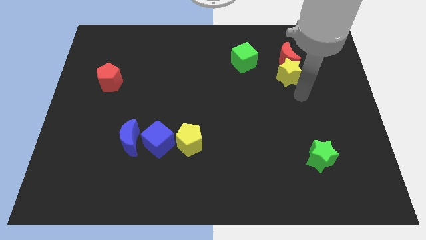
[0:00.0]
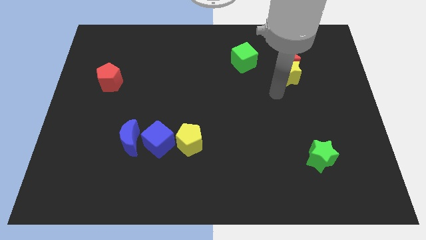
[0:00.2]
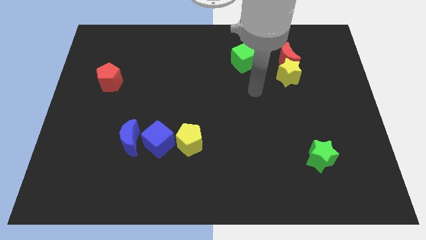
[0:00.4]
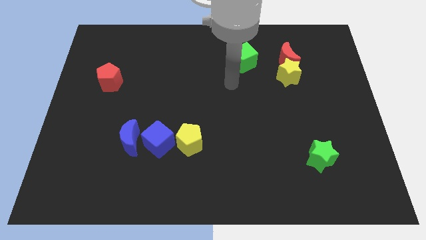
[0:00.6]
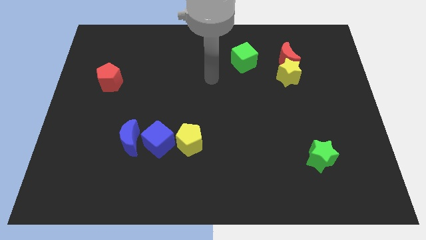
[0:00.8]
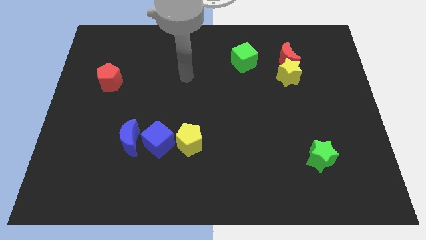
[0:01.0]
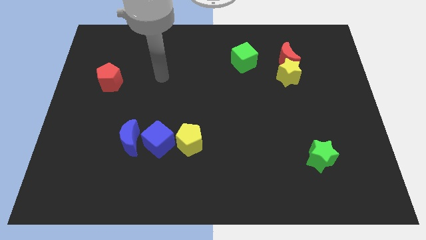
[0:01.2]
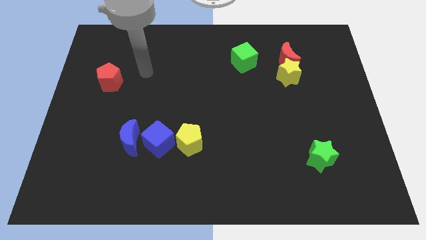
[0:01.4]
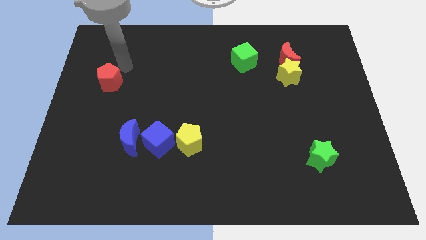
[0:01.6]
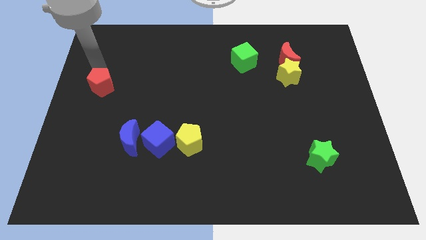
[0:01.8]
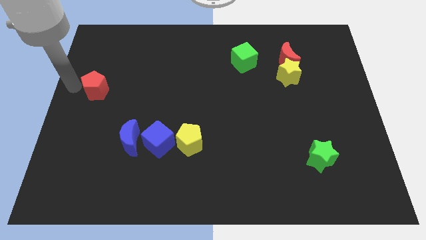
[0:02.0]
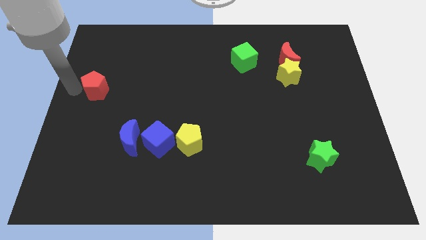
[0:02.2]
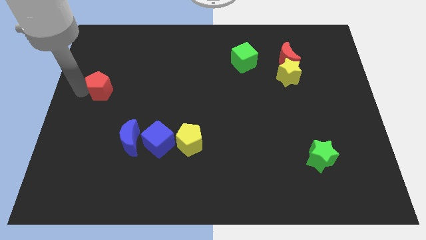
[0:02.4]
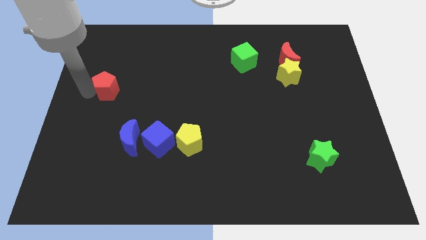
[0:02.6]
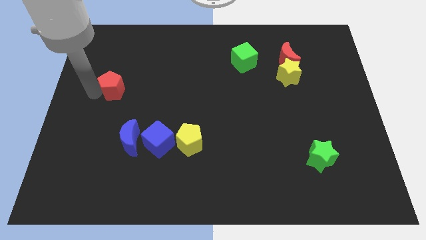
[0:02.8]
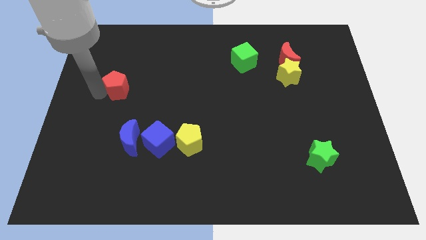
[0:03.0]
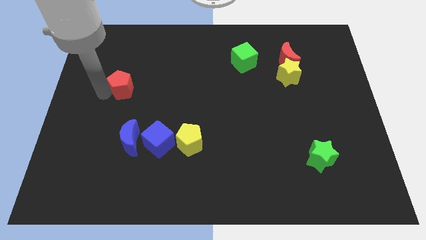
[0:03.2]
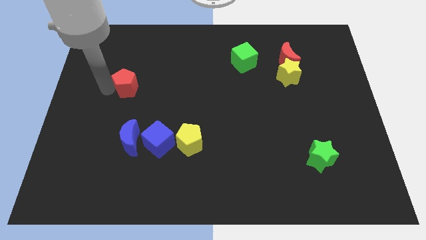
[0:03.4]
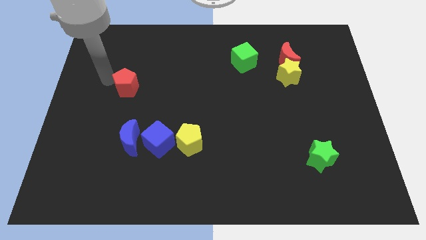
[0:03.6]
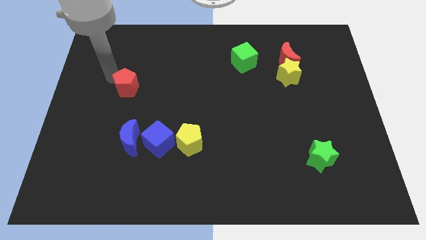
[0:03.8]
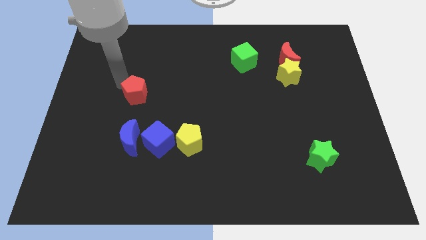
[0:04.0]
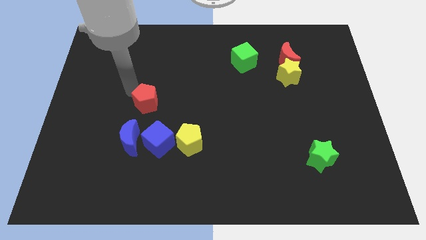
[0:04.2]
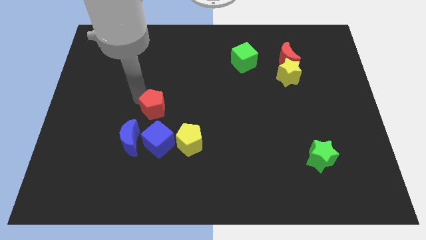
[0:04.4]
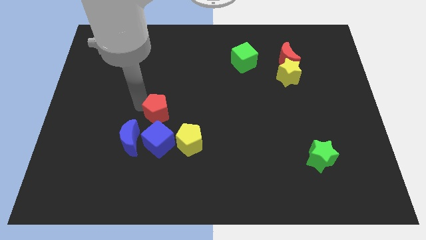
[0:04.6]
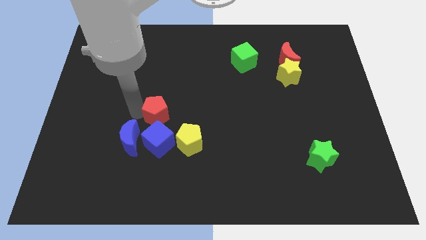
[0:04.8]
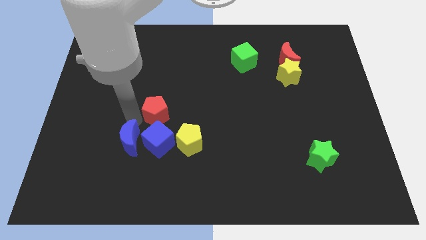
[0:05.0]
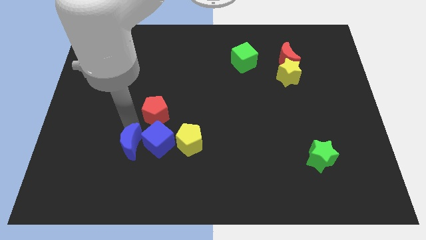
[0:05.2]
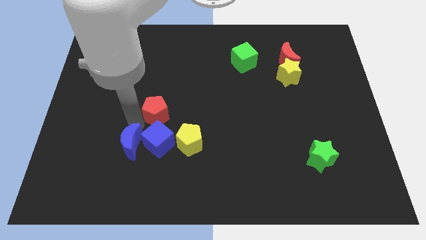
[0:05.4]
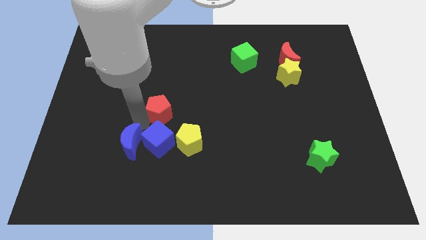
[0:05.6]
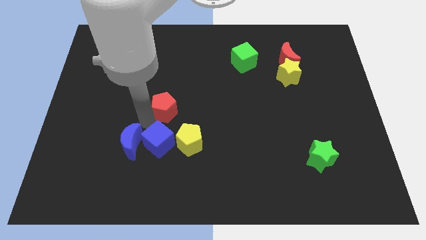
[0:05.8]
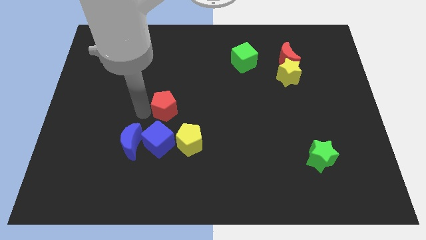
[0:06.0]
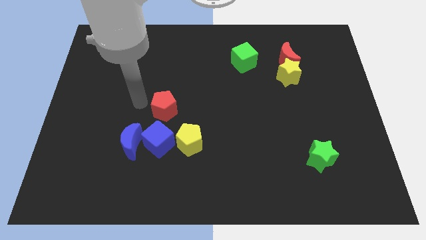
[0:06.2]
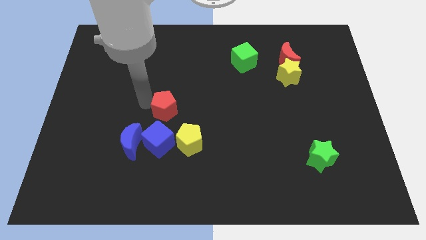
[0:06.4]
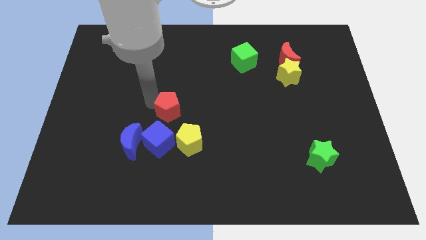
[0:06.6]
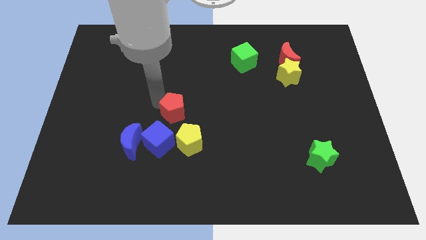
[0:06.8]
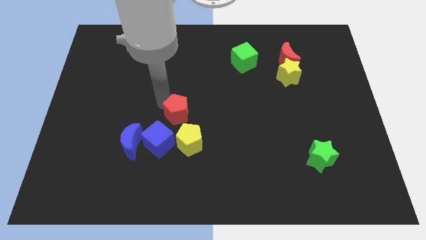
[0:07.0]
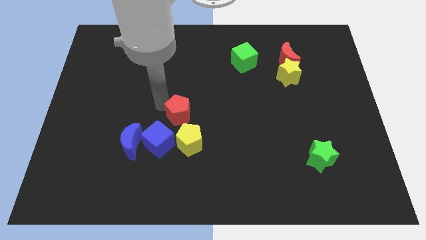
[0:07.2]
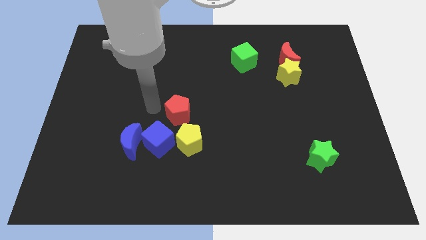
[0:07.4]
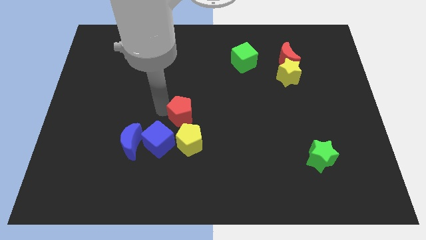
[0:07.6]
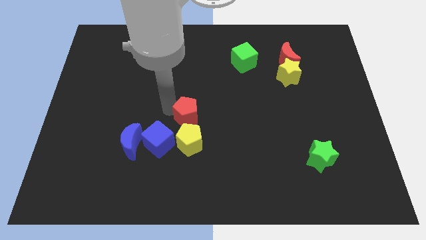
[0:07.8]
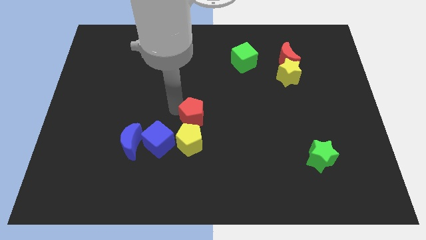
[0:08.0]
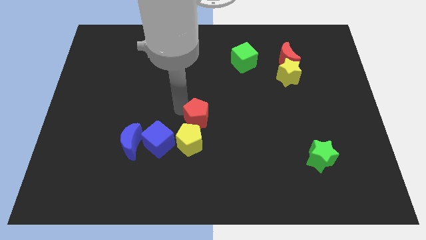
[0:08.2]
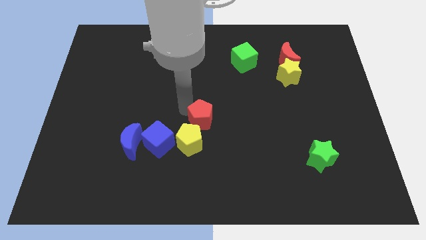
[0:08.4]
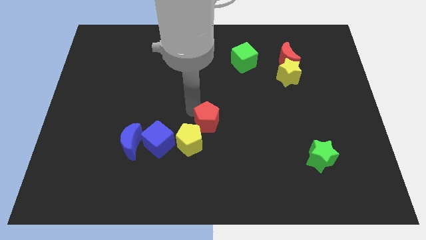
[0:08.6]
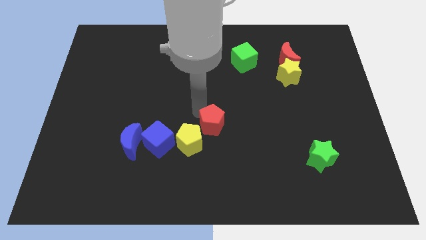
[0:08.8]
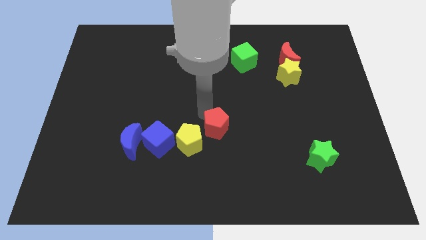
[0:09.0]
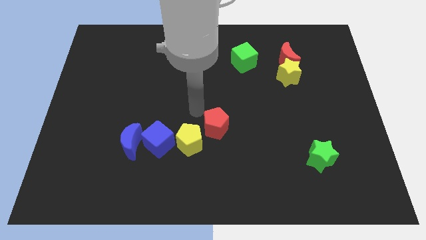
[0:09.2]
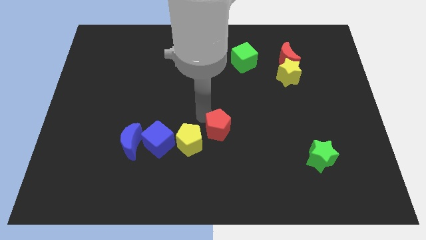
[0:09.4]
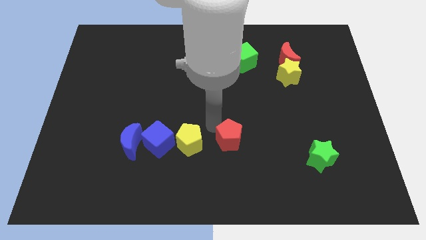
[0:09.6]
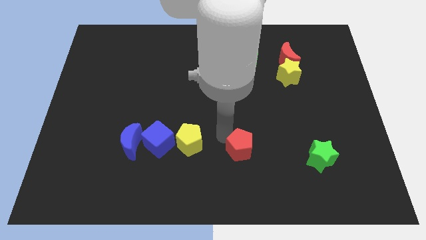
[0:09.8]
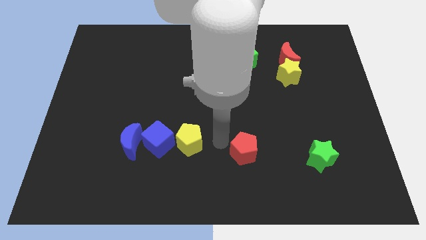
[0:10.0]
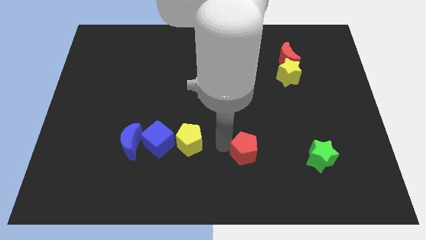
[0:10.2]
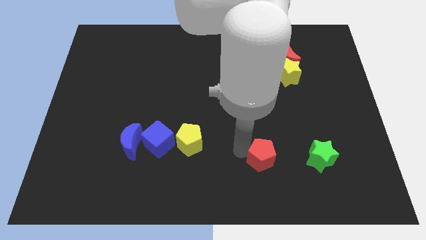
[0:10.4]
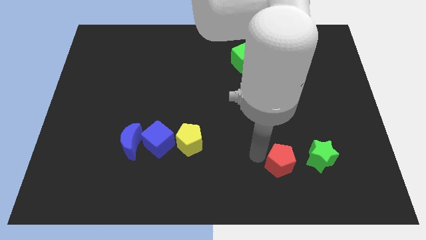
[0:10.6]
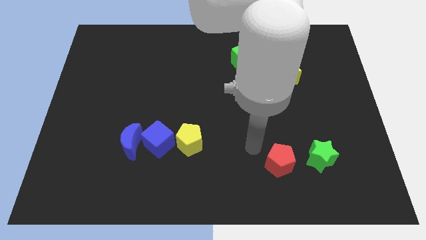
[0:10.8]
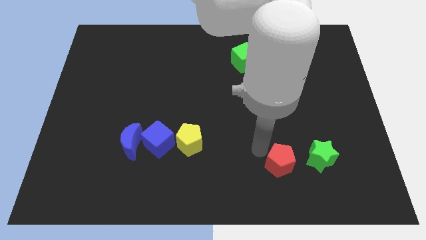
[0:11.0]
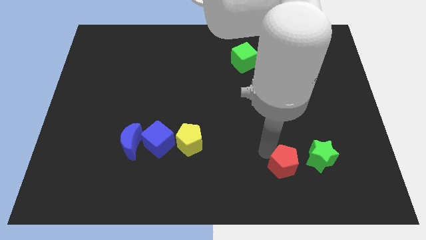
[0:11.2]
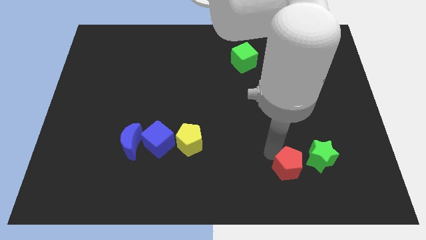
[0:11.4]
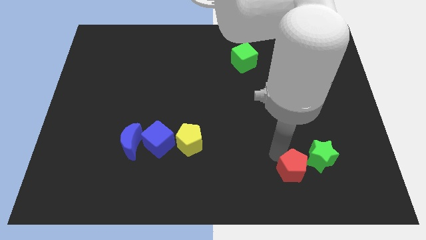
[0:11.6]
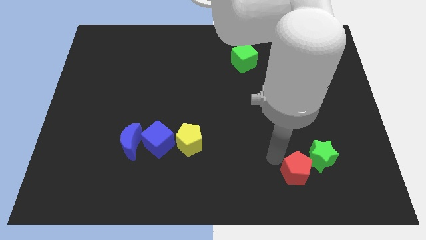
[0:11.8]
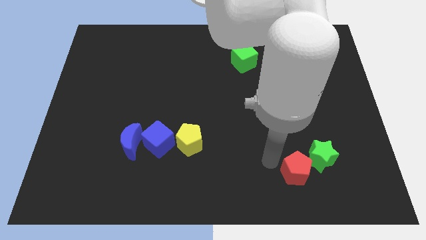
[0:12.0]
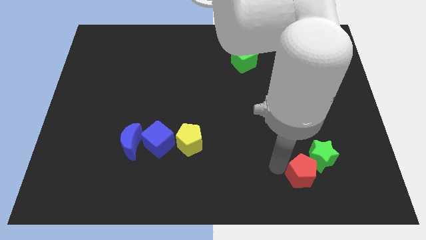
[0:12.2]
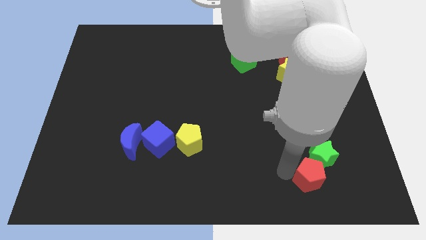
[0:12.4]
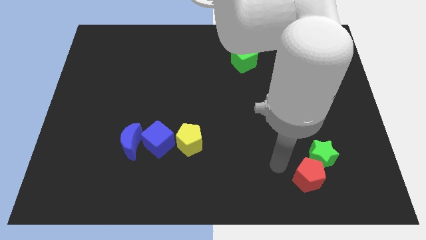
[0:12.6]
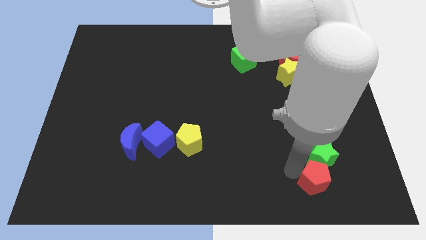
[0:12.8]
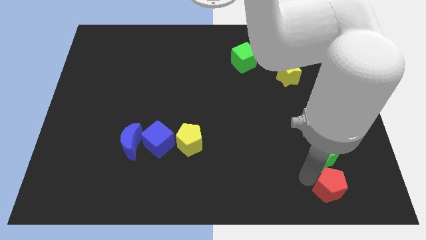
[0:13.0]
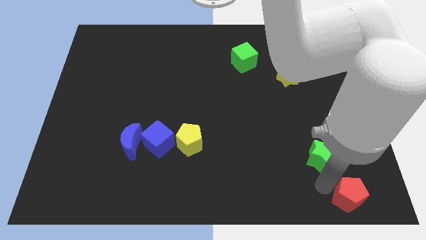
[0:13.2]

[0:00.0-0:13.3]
push the red pentagon to the bottom right
